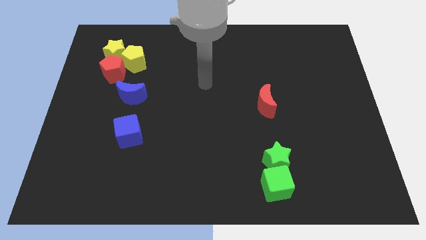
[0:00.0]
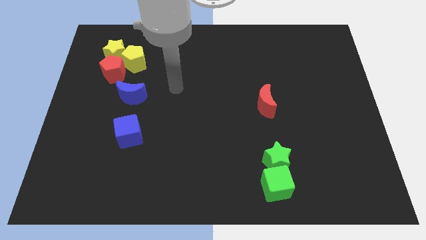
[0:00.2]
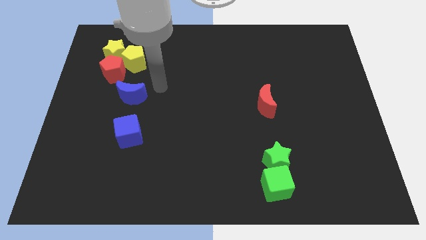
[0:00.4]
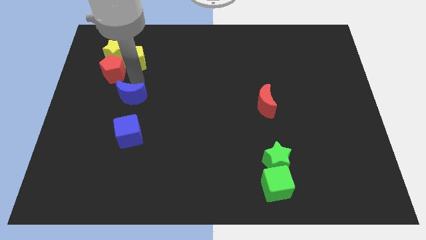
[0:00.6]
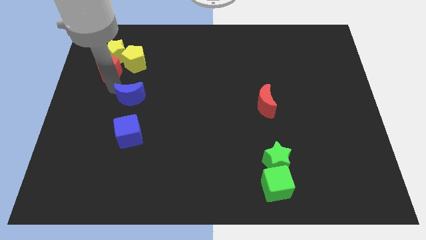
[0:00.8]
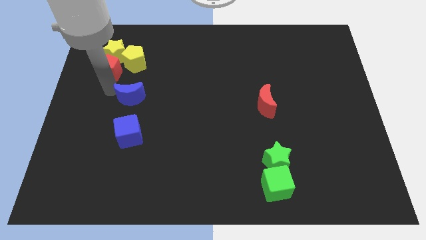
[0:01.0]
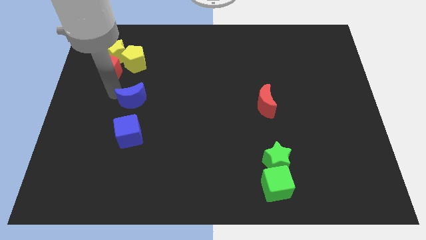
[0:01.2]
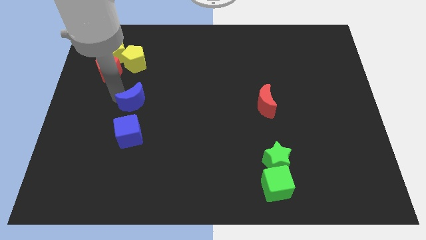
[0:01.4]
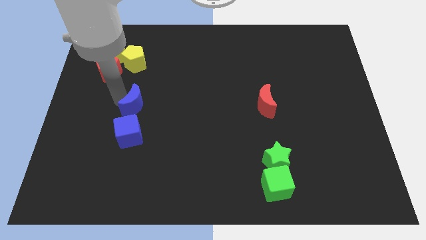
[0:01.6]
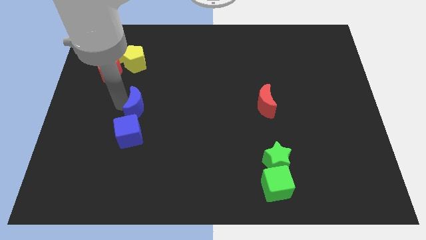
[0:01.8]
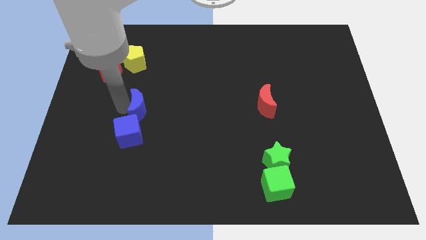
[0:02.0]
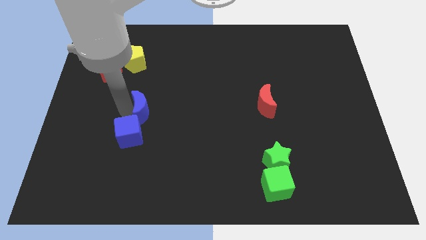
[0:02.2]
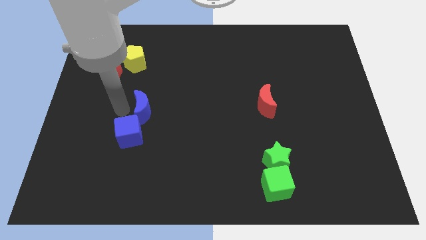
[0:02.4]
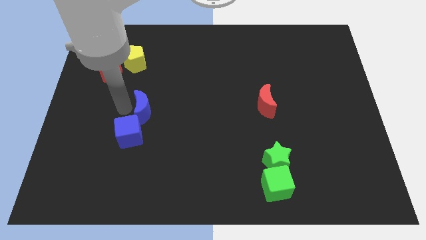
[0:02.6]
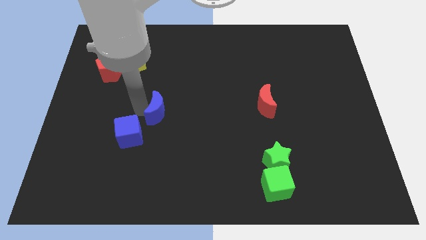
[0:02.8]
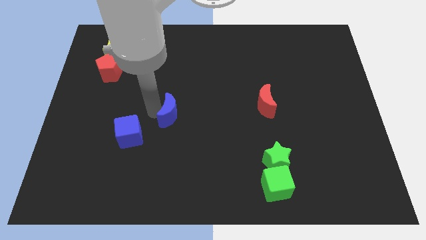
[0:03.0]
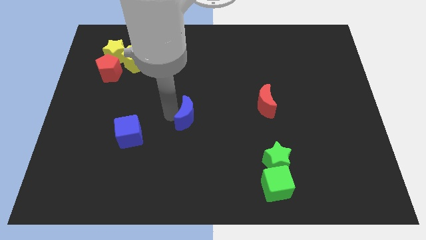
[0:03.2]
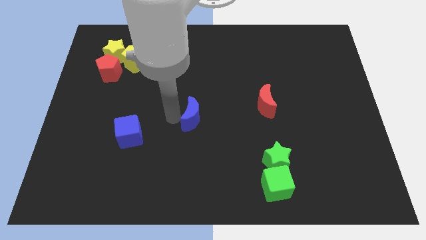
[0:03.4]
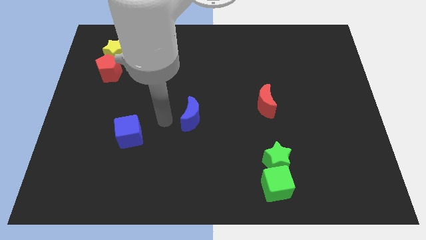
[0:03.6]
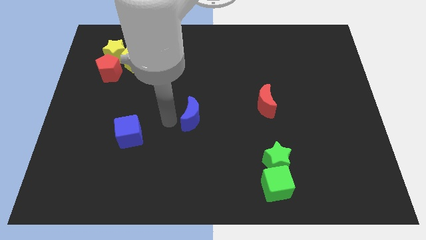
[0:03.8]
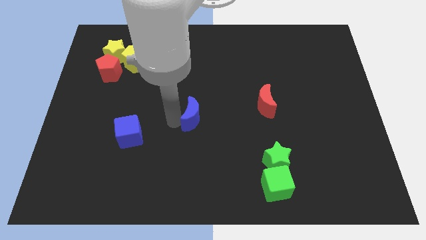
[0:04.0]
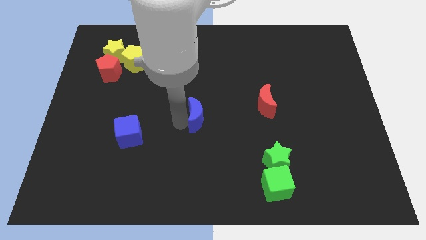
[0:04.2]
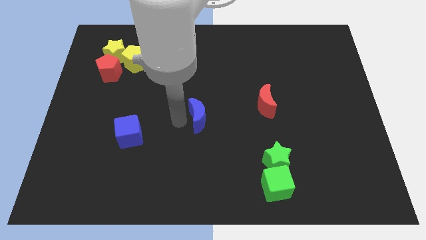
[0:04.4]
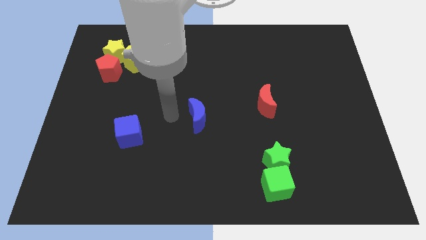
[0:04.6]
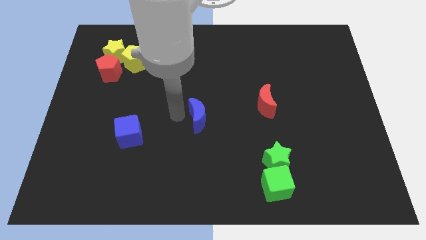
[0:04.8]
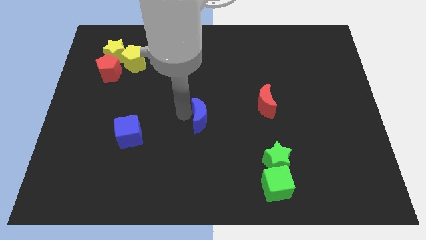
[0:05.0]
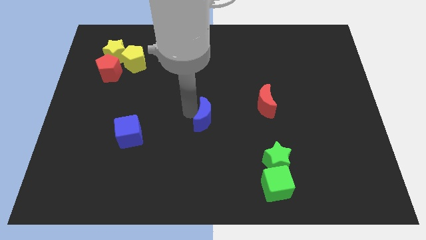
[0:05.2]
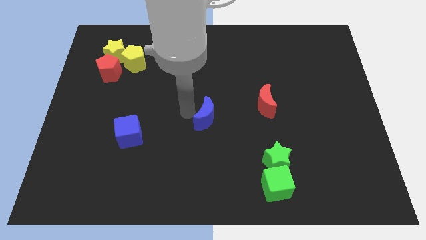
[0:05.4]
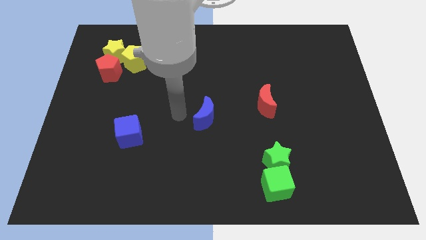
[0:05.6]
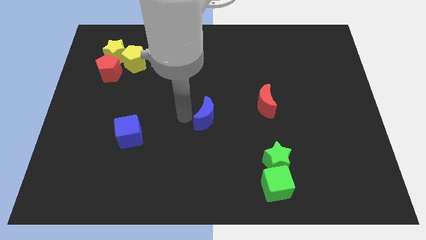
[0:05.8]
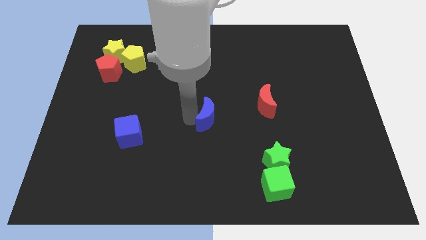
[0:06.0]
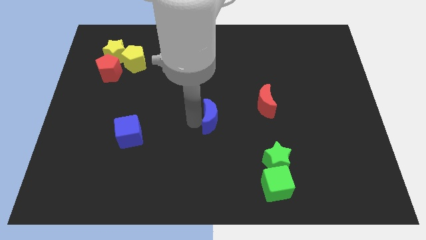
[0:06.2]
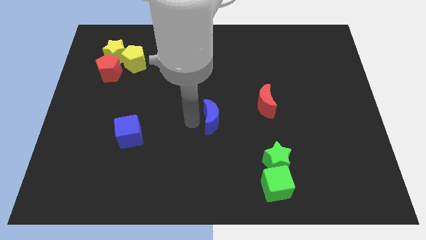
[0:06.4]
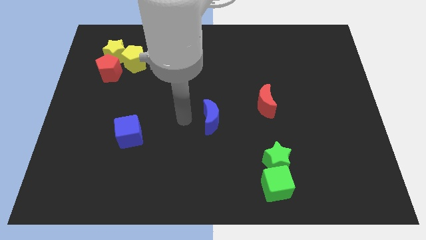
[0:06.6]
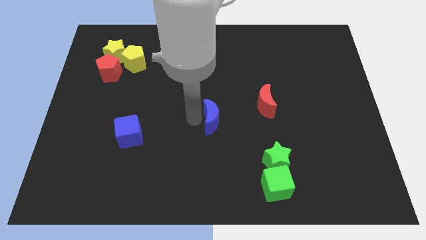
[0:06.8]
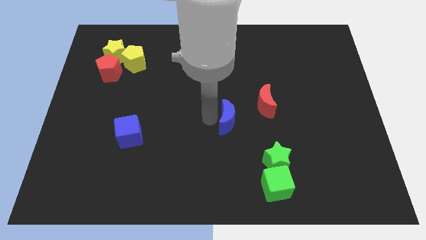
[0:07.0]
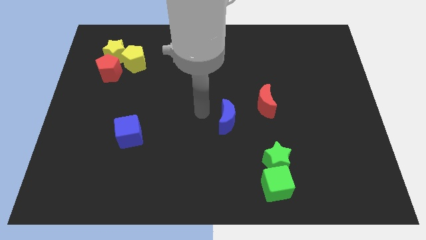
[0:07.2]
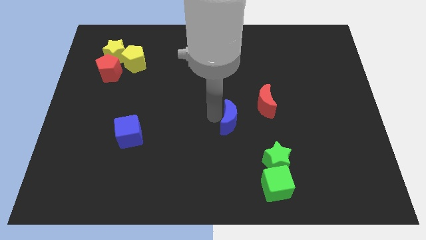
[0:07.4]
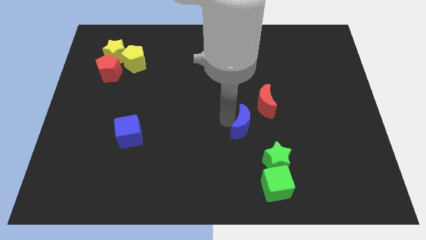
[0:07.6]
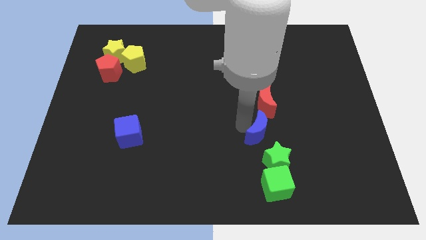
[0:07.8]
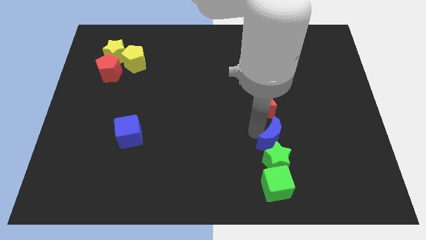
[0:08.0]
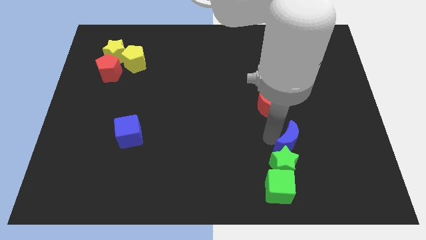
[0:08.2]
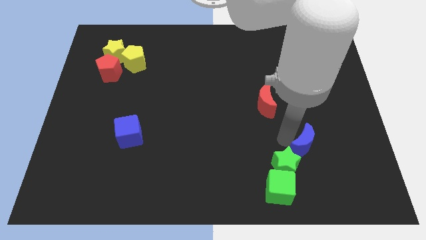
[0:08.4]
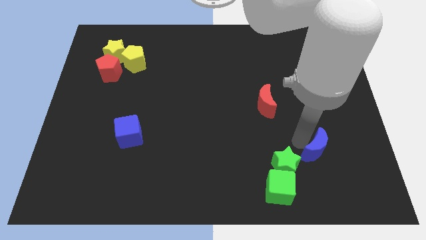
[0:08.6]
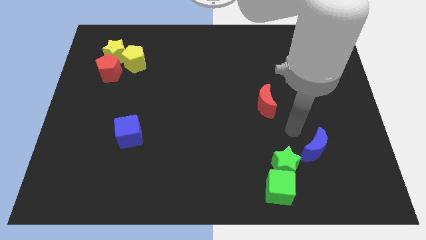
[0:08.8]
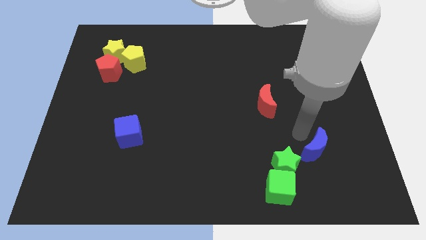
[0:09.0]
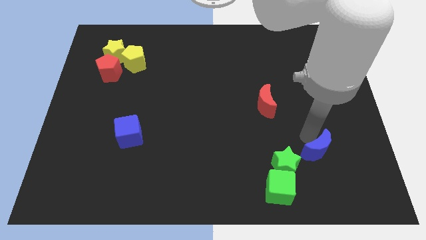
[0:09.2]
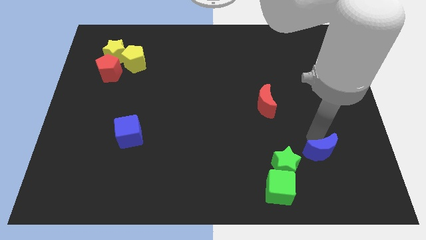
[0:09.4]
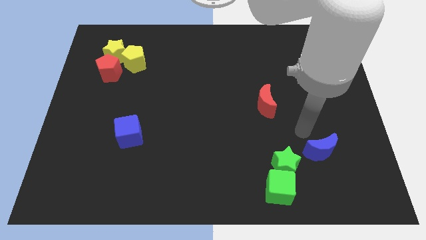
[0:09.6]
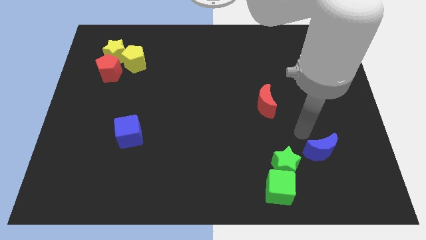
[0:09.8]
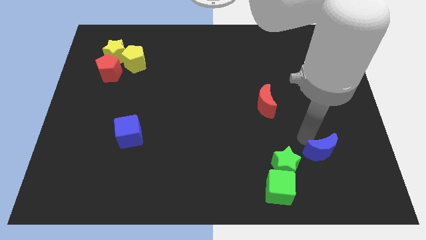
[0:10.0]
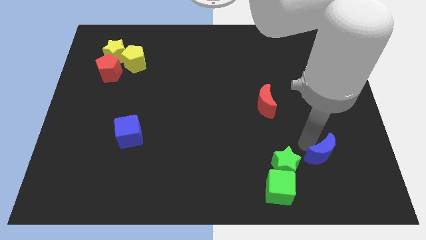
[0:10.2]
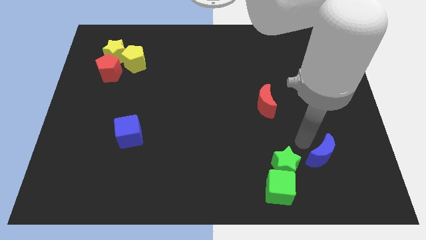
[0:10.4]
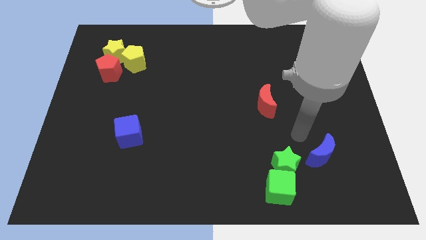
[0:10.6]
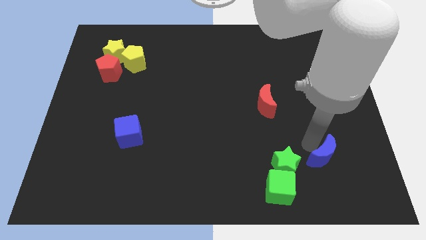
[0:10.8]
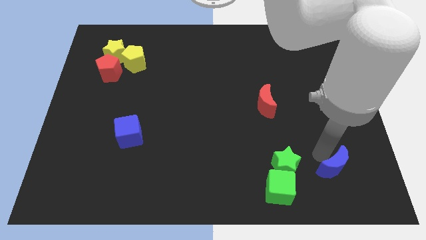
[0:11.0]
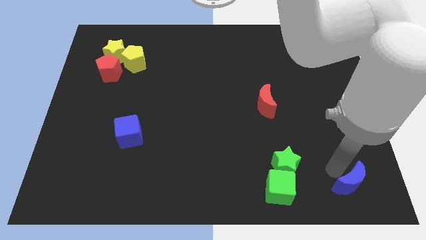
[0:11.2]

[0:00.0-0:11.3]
put the blue moon to the bottom right corner

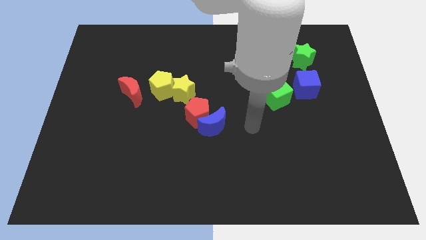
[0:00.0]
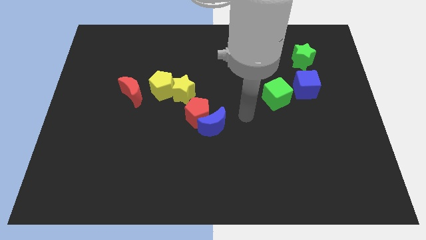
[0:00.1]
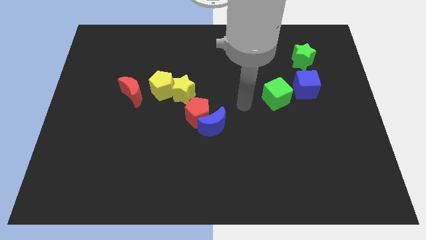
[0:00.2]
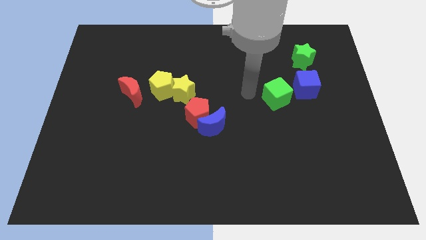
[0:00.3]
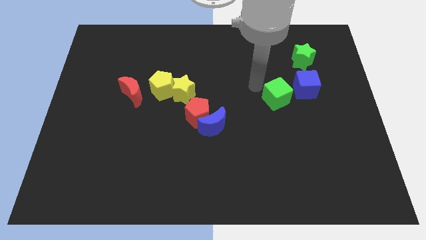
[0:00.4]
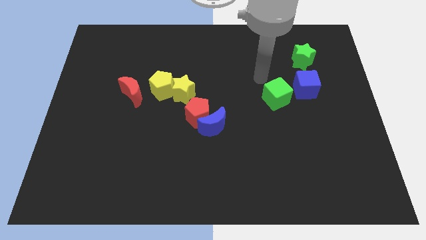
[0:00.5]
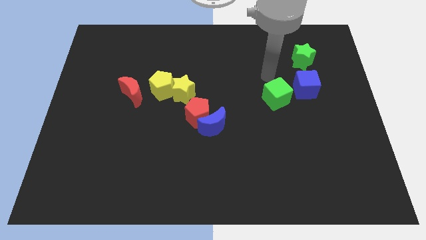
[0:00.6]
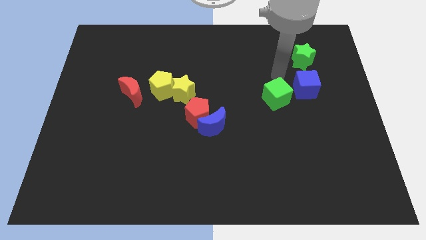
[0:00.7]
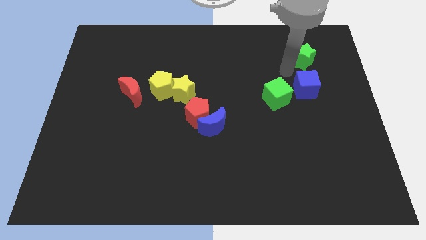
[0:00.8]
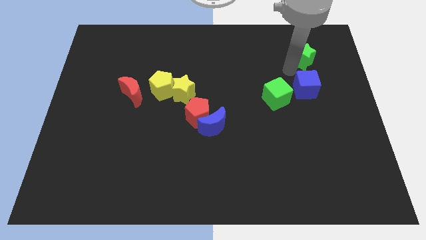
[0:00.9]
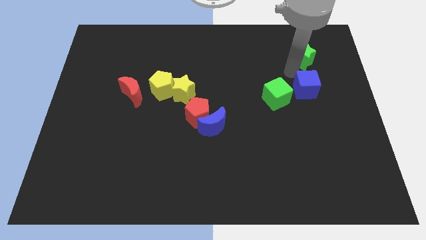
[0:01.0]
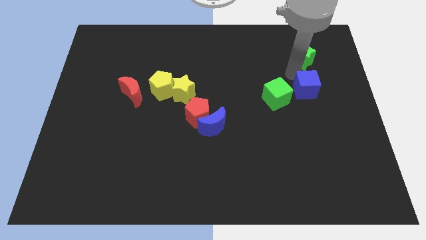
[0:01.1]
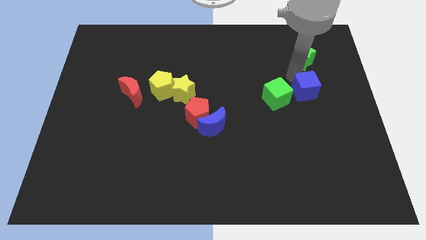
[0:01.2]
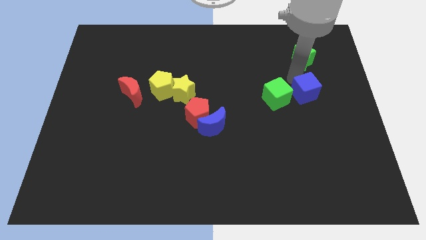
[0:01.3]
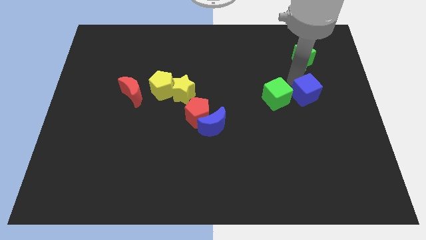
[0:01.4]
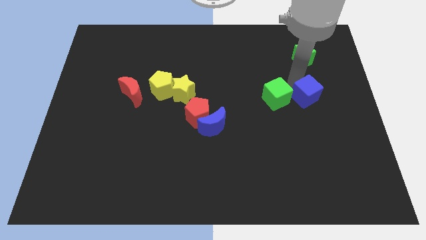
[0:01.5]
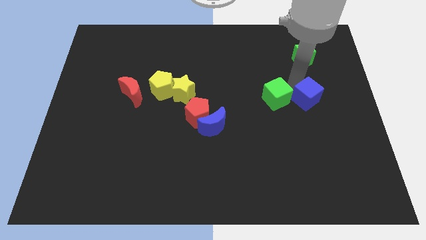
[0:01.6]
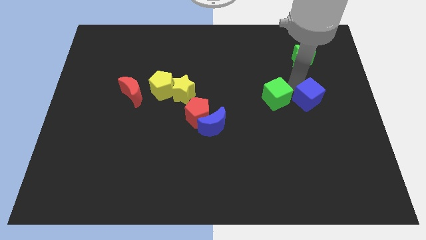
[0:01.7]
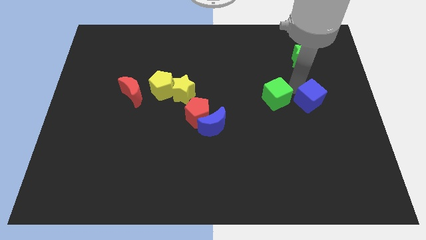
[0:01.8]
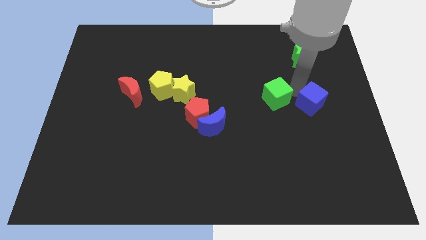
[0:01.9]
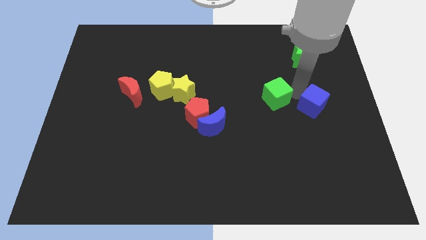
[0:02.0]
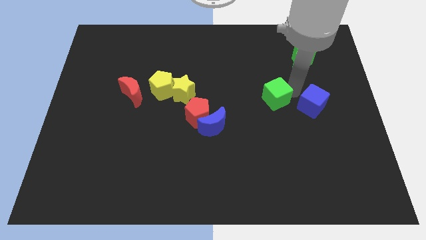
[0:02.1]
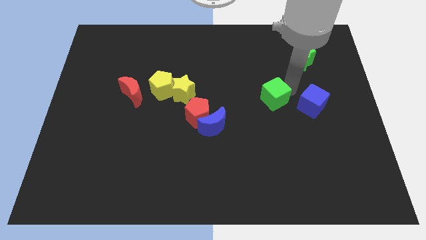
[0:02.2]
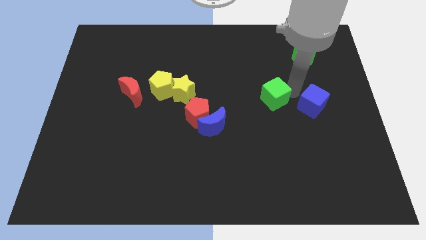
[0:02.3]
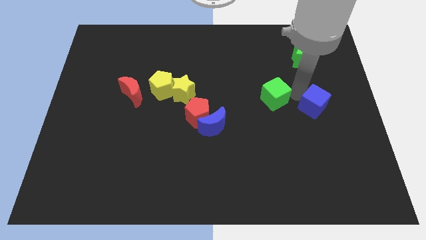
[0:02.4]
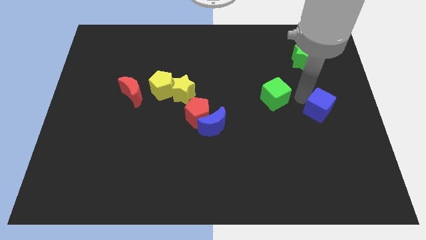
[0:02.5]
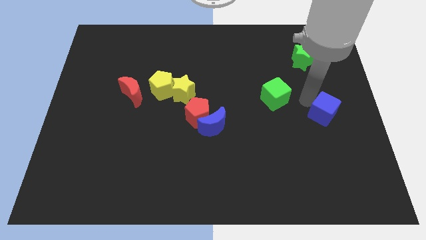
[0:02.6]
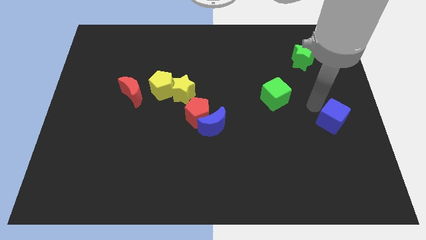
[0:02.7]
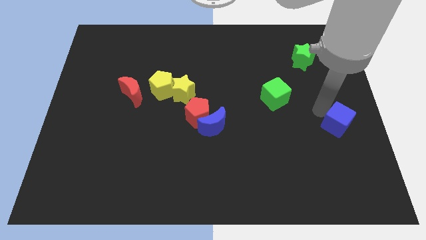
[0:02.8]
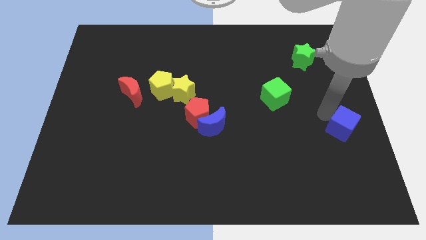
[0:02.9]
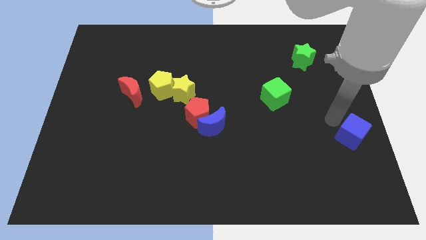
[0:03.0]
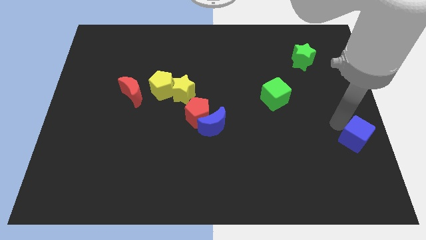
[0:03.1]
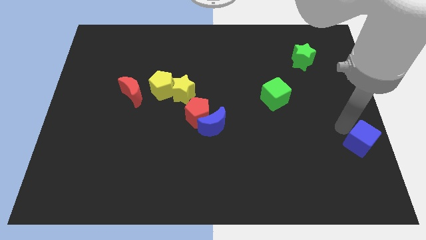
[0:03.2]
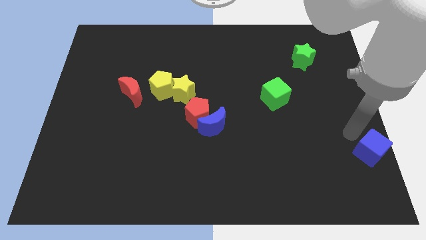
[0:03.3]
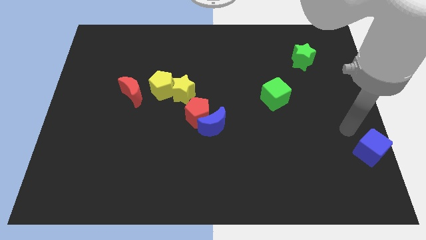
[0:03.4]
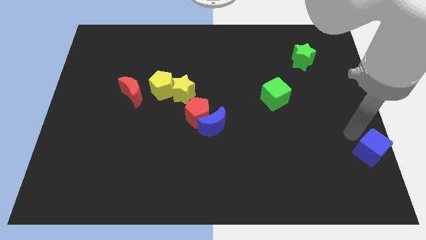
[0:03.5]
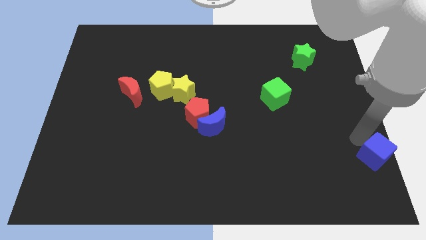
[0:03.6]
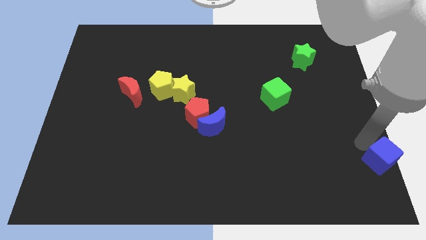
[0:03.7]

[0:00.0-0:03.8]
slide the blue cube to the bottom right
